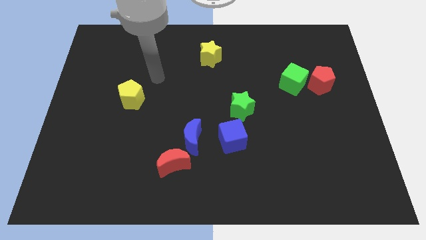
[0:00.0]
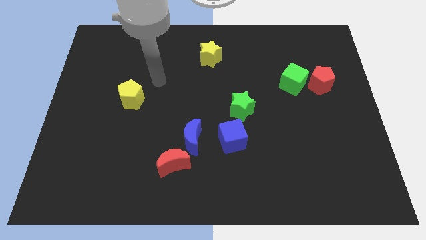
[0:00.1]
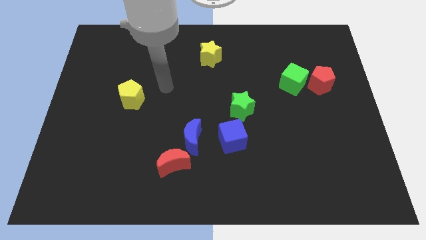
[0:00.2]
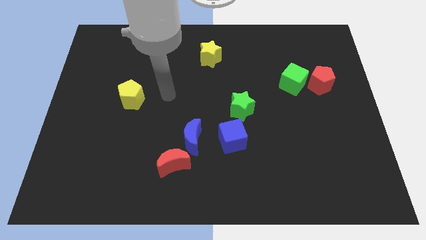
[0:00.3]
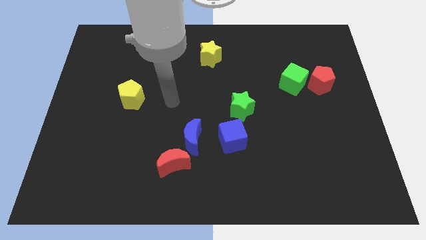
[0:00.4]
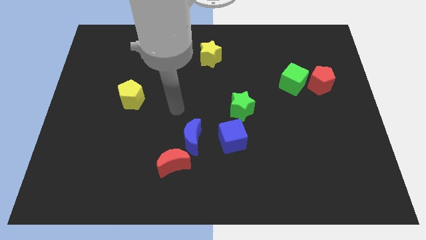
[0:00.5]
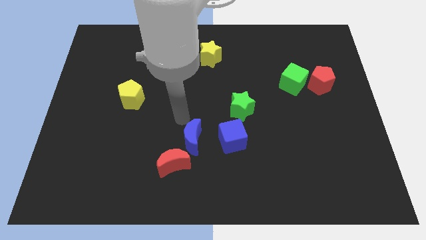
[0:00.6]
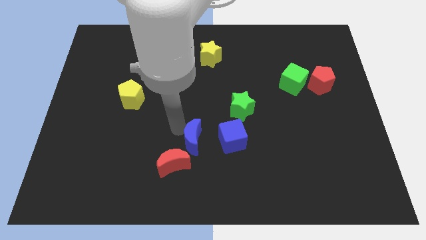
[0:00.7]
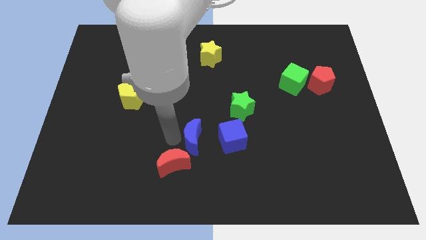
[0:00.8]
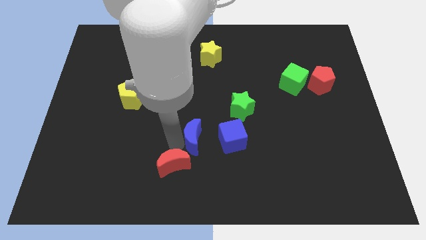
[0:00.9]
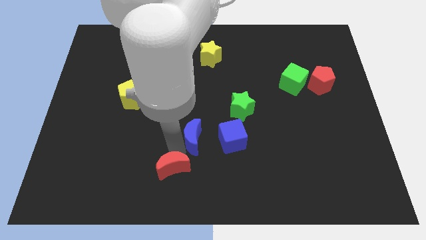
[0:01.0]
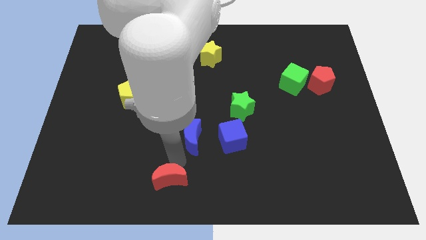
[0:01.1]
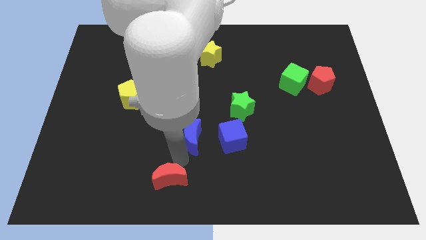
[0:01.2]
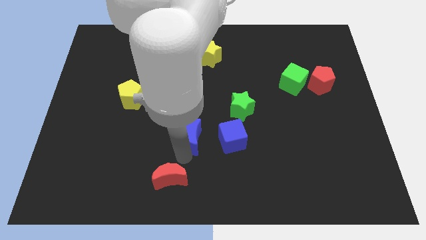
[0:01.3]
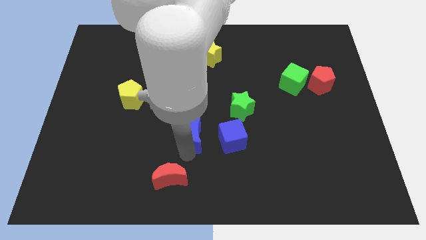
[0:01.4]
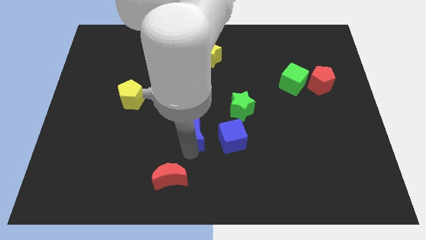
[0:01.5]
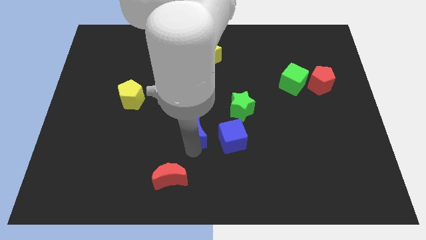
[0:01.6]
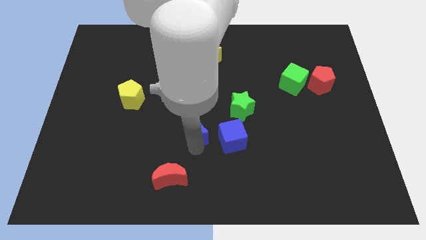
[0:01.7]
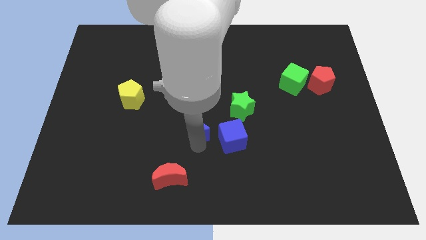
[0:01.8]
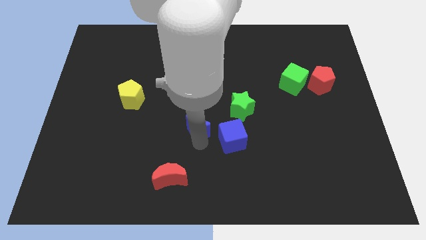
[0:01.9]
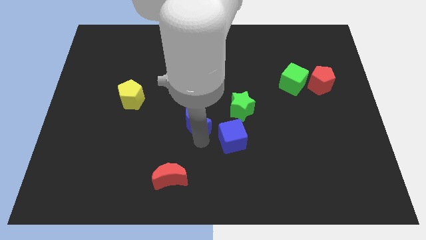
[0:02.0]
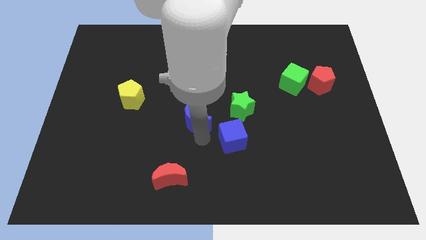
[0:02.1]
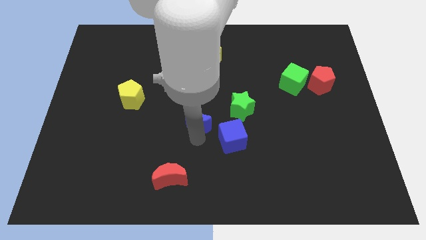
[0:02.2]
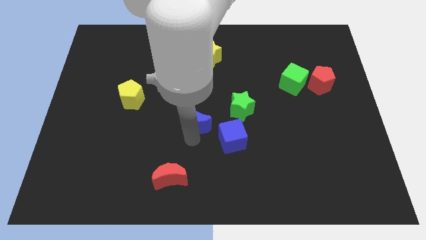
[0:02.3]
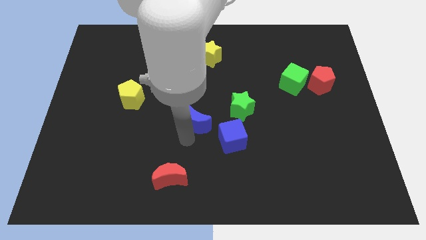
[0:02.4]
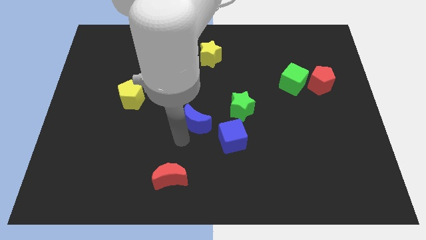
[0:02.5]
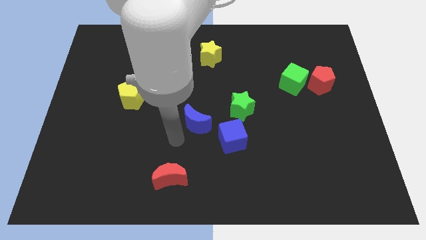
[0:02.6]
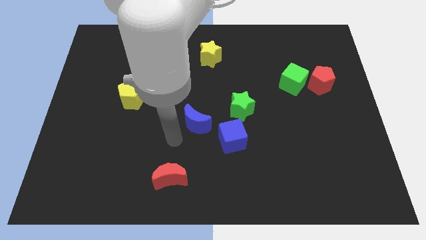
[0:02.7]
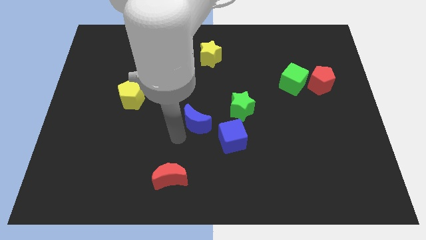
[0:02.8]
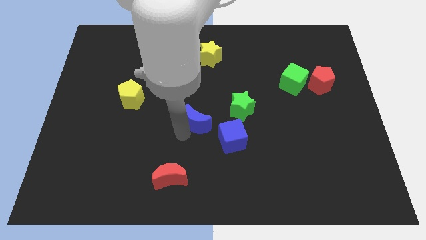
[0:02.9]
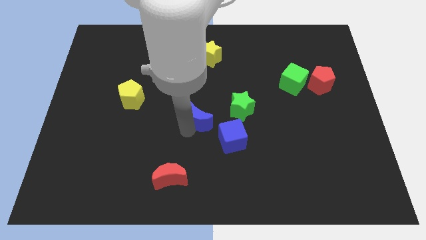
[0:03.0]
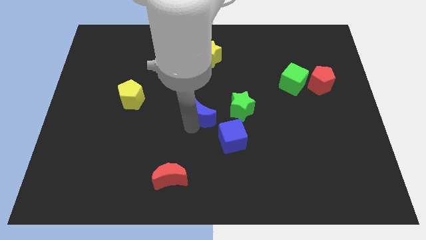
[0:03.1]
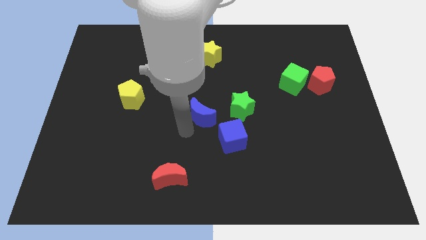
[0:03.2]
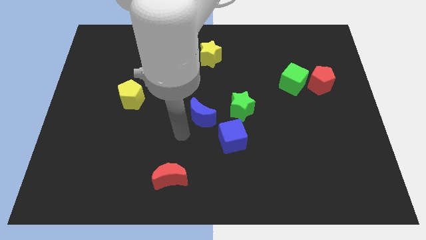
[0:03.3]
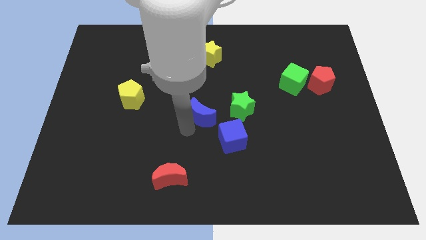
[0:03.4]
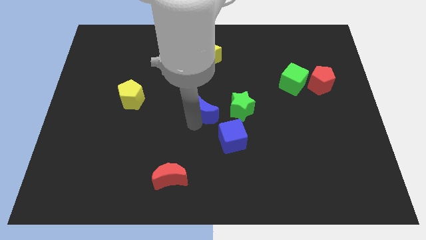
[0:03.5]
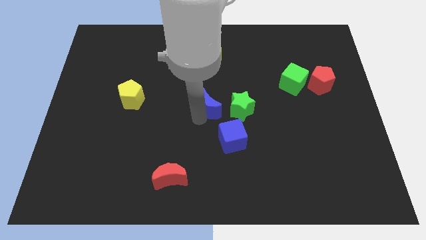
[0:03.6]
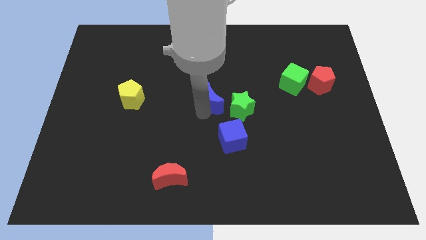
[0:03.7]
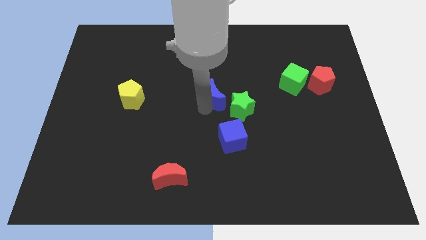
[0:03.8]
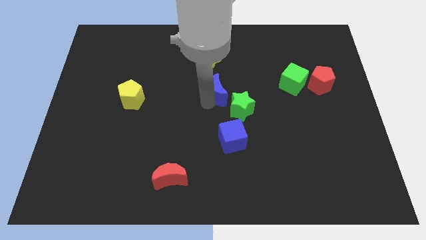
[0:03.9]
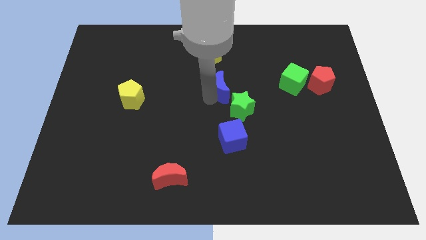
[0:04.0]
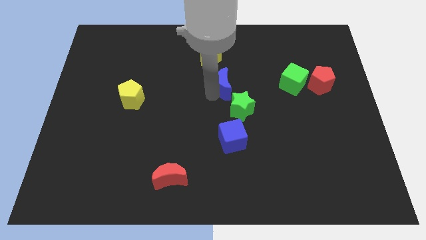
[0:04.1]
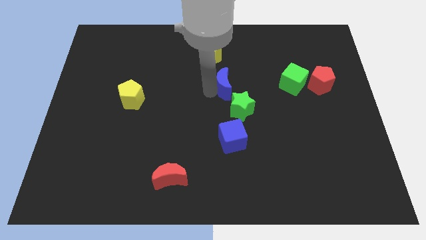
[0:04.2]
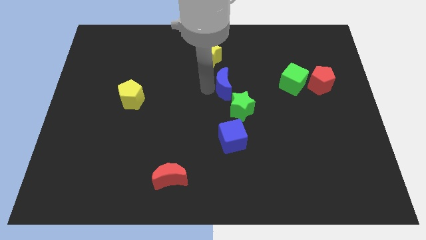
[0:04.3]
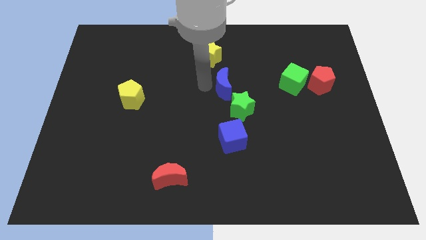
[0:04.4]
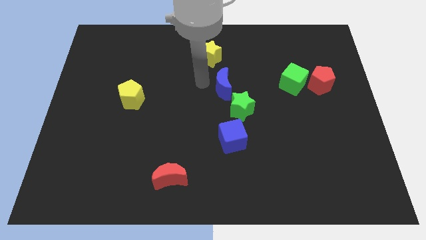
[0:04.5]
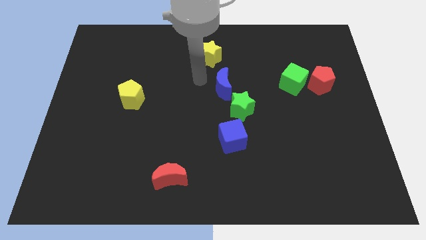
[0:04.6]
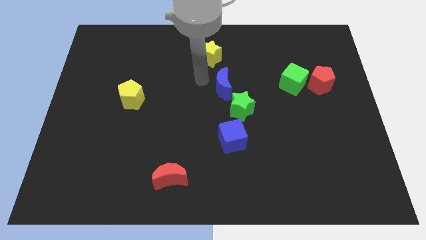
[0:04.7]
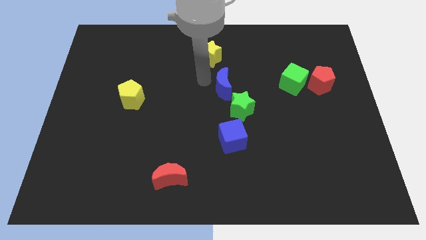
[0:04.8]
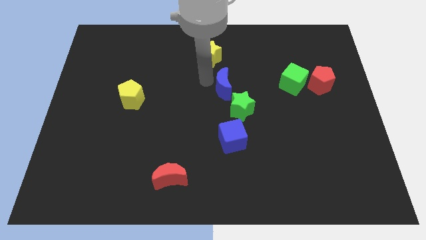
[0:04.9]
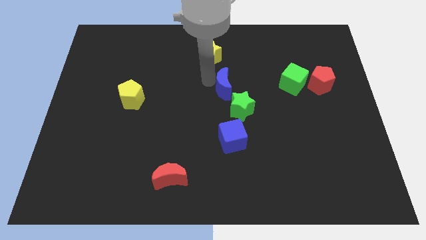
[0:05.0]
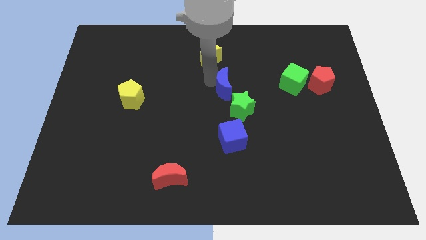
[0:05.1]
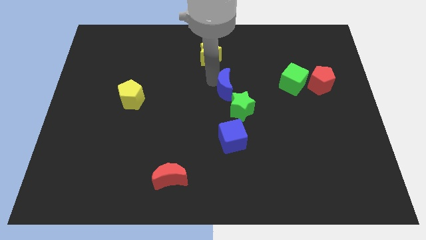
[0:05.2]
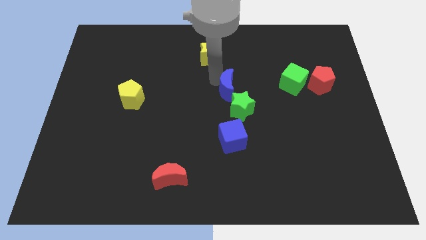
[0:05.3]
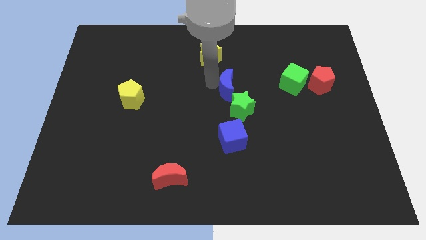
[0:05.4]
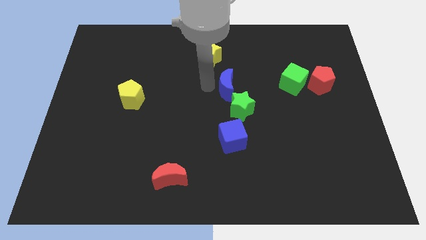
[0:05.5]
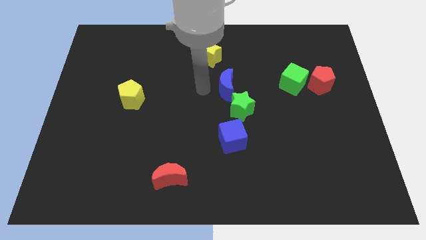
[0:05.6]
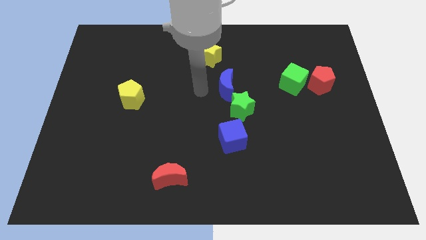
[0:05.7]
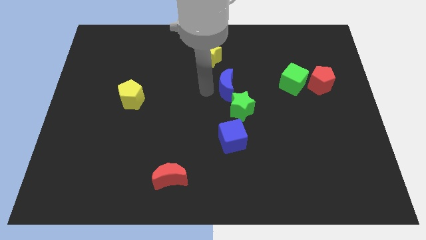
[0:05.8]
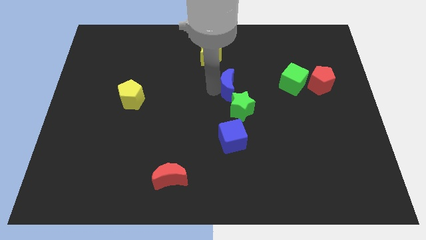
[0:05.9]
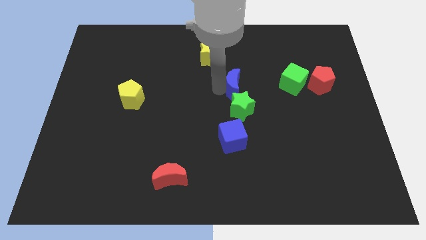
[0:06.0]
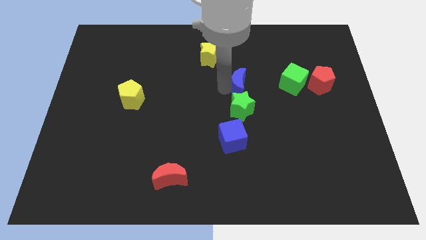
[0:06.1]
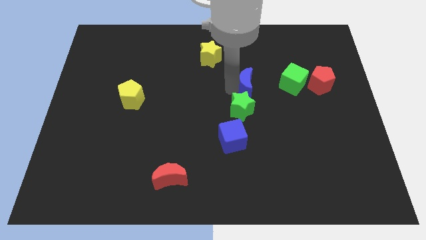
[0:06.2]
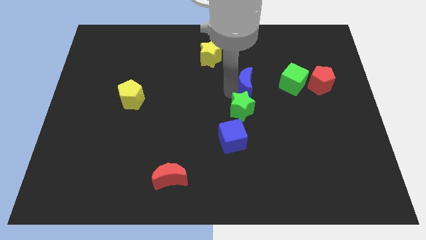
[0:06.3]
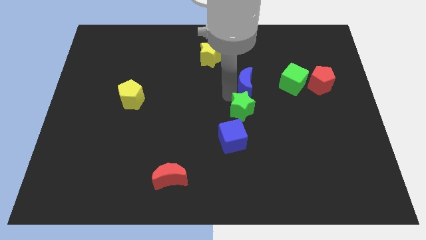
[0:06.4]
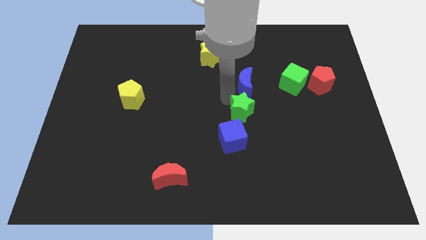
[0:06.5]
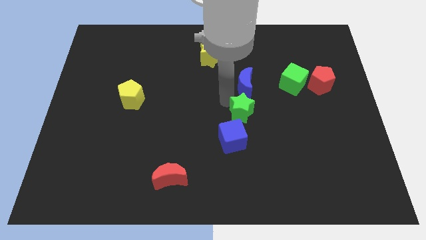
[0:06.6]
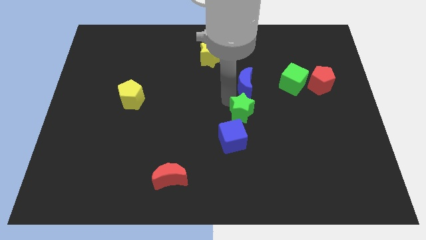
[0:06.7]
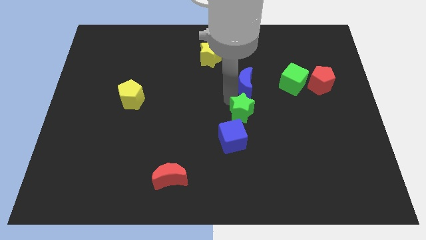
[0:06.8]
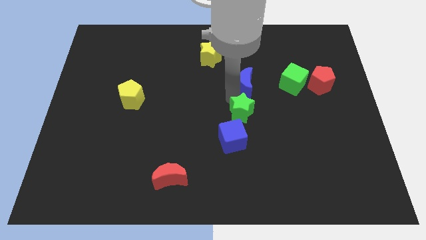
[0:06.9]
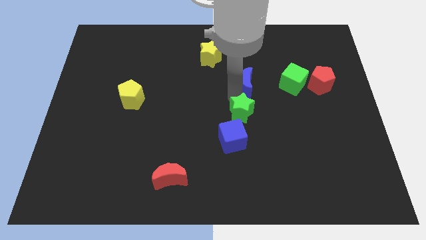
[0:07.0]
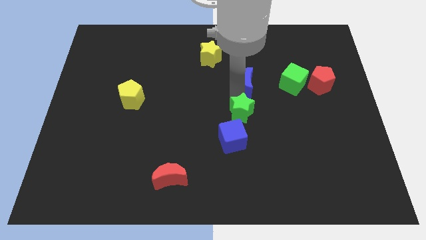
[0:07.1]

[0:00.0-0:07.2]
move the blue moon diagonally upwards and to the right

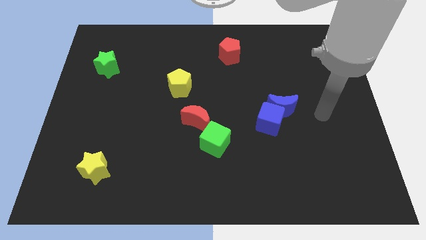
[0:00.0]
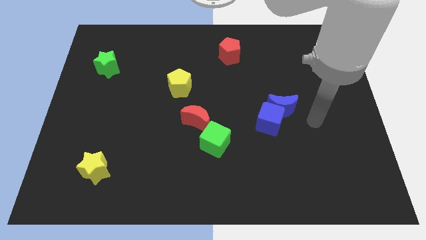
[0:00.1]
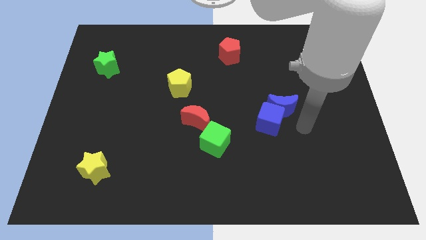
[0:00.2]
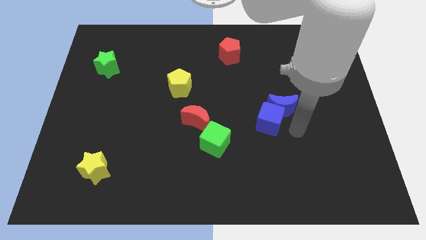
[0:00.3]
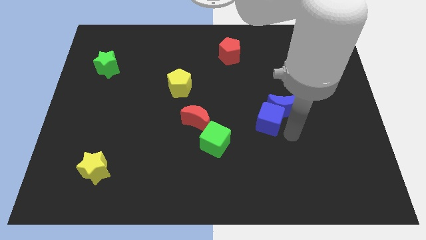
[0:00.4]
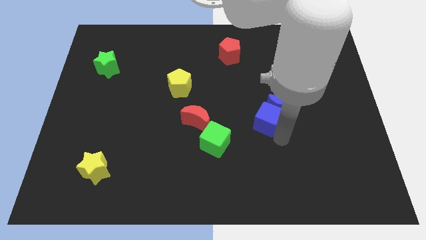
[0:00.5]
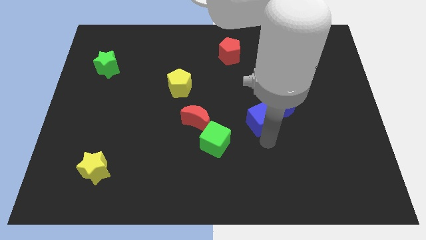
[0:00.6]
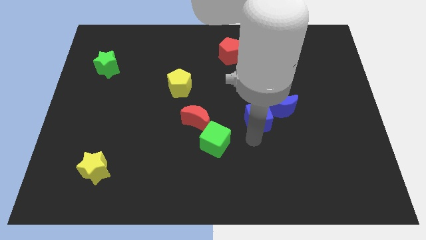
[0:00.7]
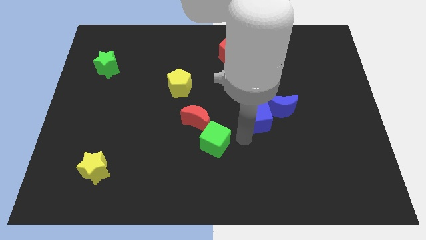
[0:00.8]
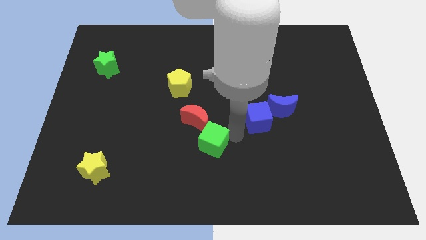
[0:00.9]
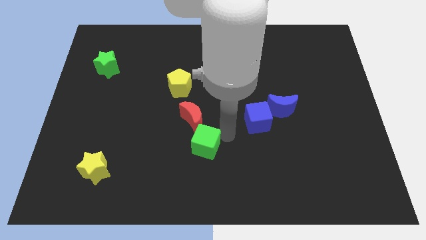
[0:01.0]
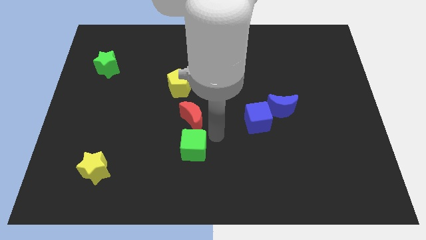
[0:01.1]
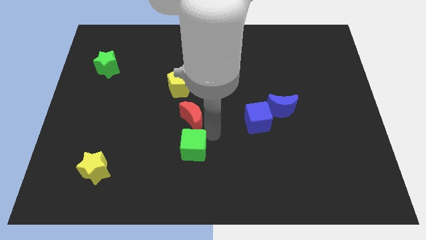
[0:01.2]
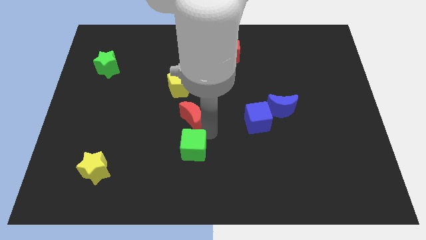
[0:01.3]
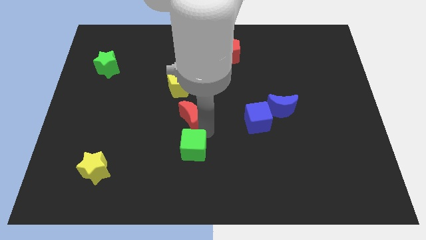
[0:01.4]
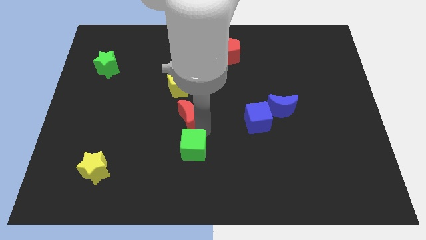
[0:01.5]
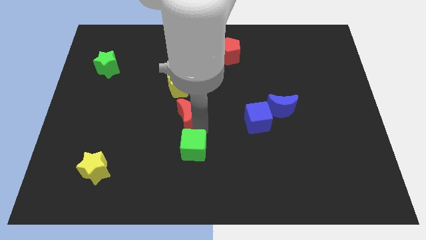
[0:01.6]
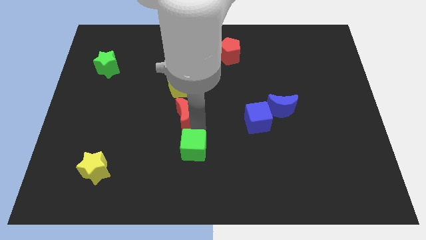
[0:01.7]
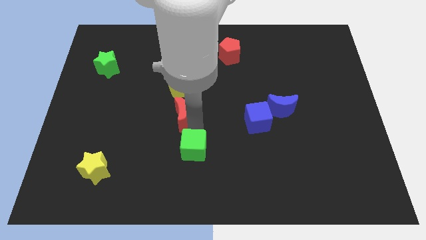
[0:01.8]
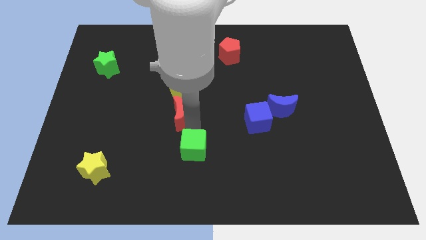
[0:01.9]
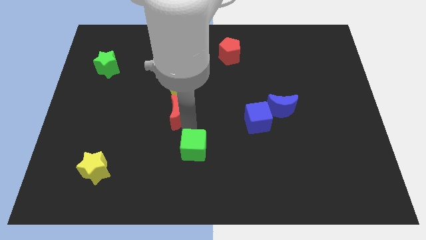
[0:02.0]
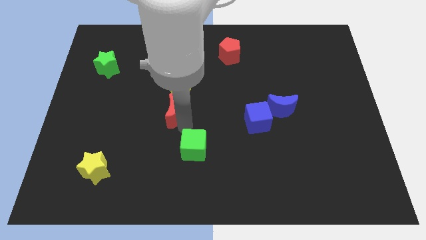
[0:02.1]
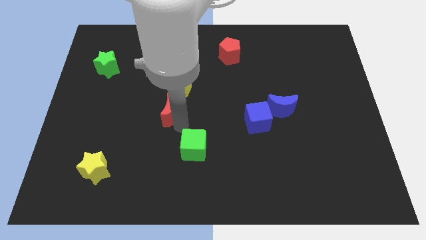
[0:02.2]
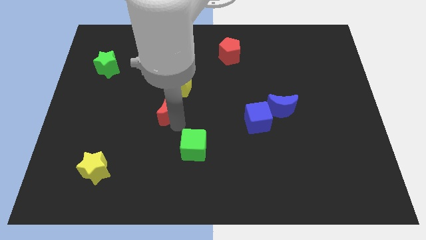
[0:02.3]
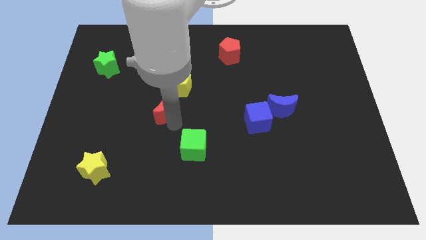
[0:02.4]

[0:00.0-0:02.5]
slightly move the red moon upwards and left
